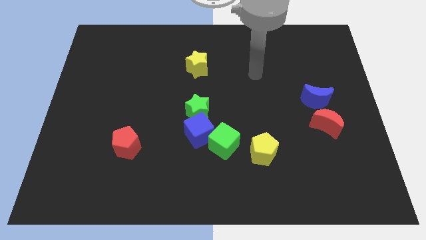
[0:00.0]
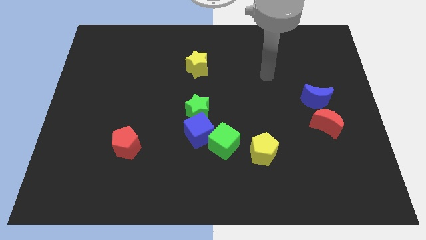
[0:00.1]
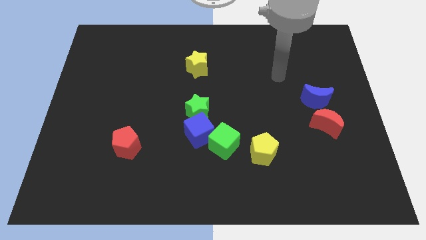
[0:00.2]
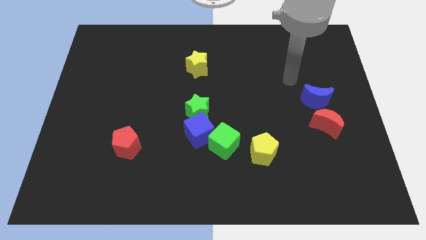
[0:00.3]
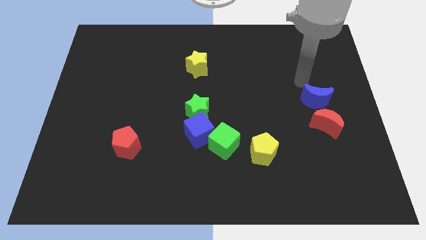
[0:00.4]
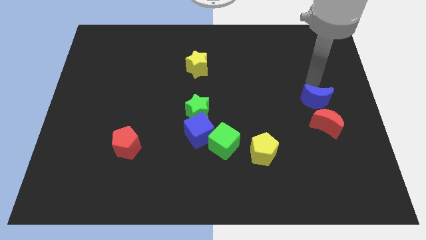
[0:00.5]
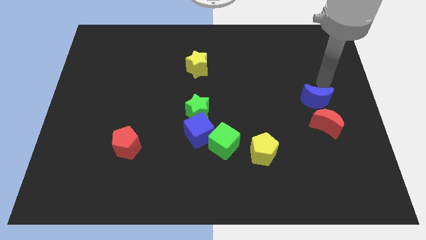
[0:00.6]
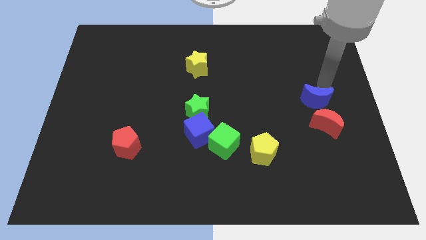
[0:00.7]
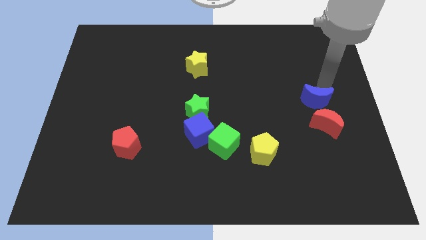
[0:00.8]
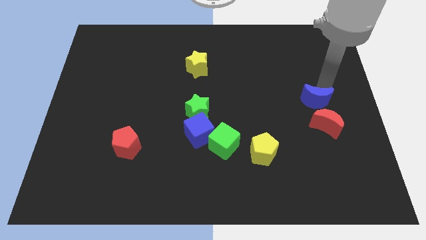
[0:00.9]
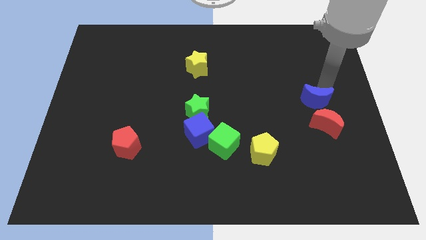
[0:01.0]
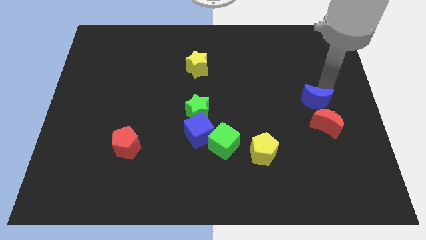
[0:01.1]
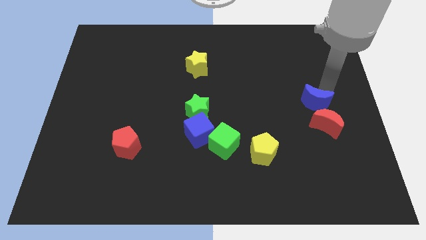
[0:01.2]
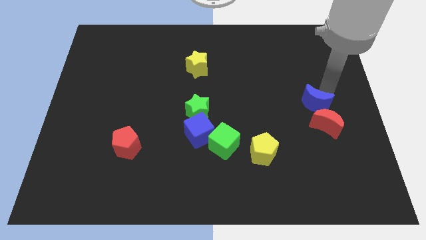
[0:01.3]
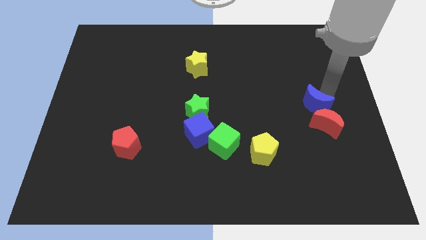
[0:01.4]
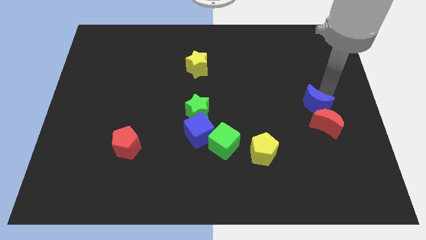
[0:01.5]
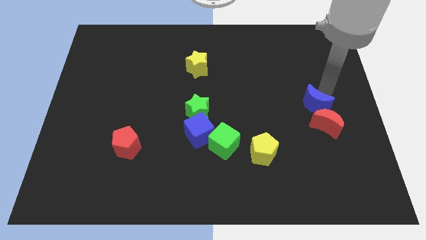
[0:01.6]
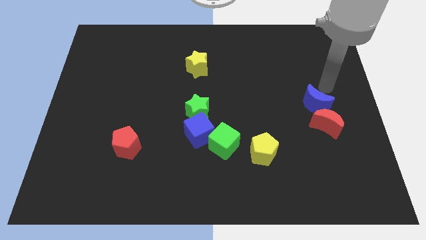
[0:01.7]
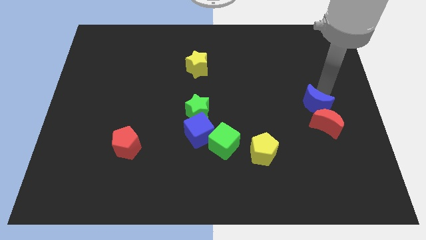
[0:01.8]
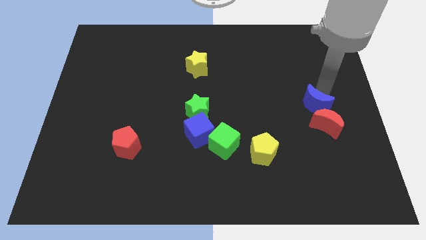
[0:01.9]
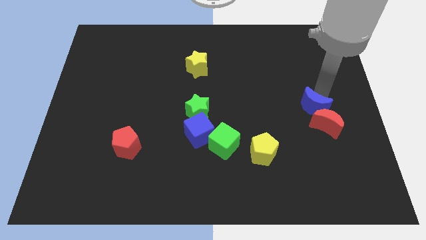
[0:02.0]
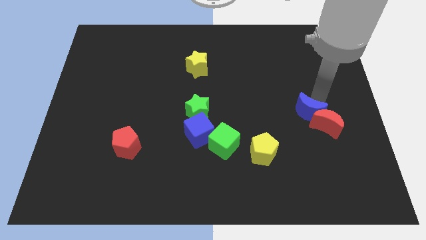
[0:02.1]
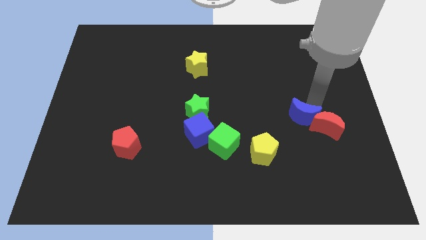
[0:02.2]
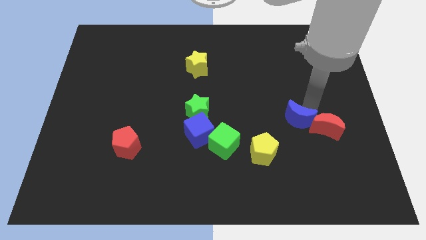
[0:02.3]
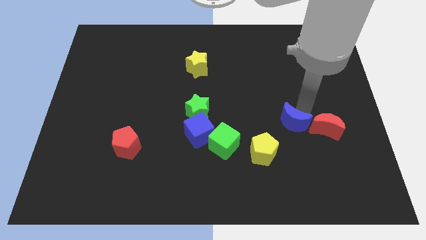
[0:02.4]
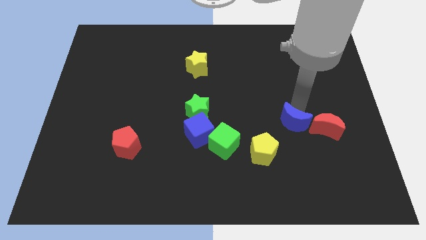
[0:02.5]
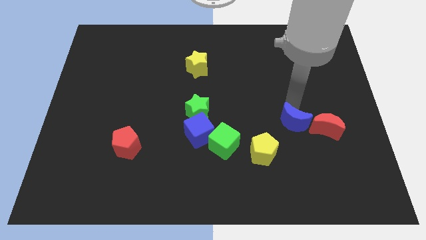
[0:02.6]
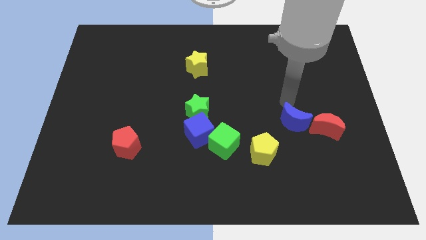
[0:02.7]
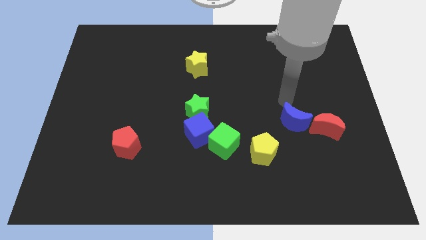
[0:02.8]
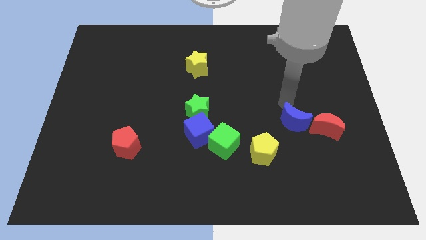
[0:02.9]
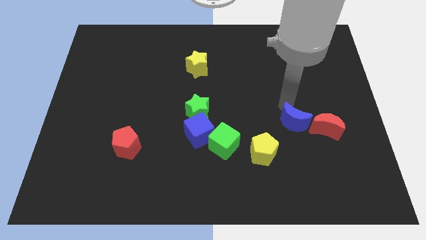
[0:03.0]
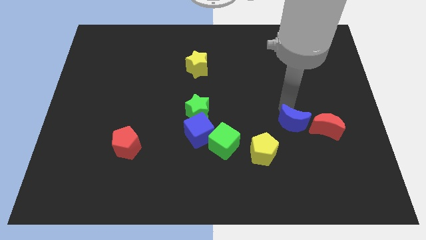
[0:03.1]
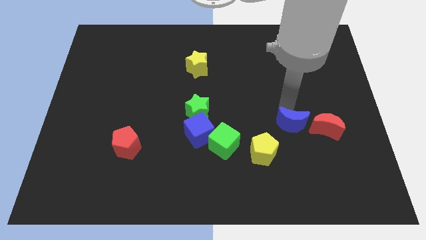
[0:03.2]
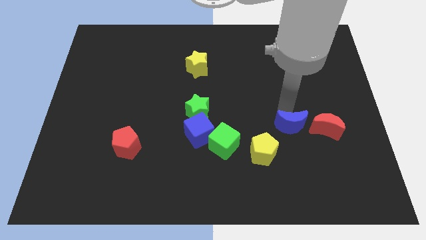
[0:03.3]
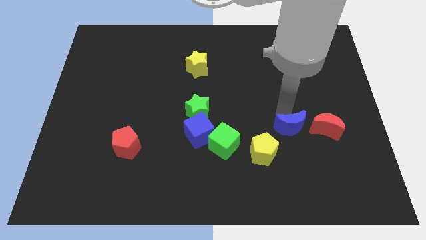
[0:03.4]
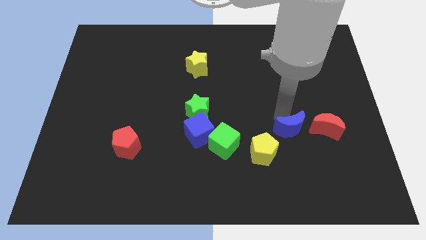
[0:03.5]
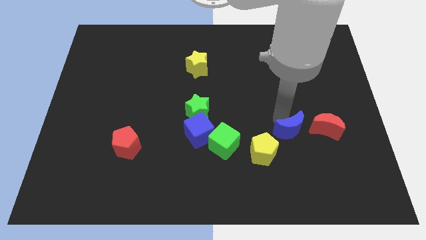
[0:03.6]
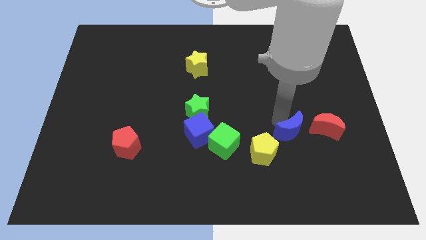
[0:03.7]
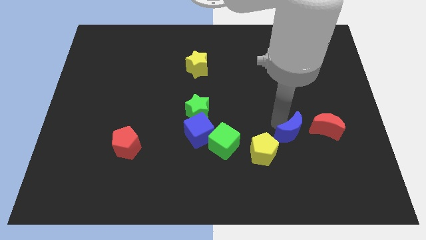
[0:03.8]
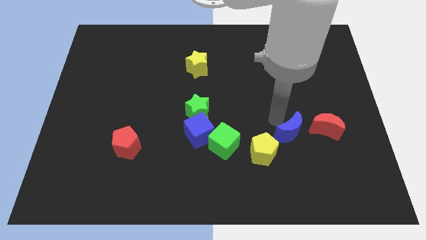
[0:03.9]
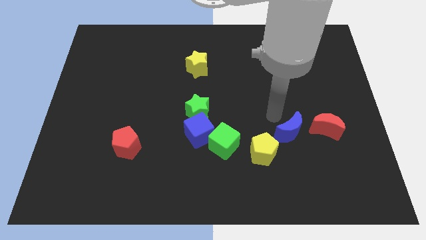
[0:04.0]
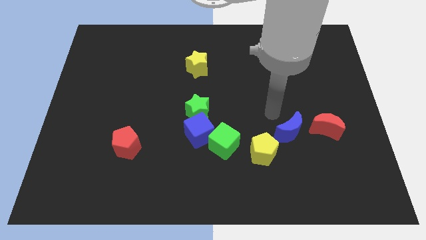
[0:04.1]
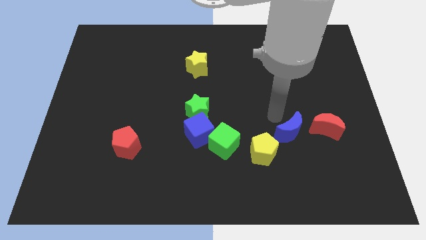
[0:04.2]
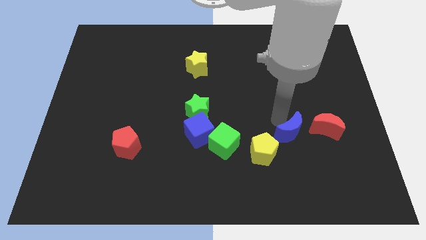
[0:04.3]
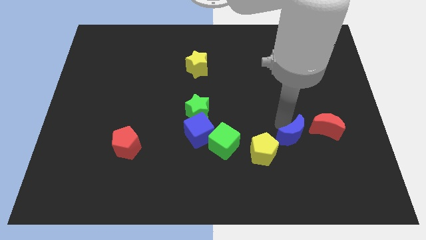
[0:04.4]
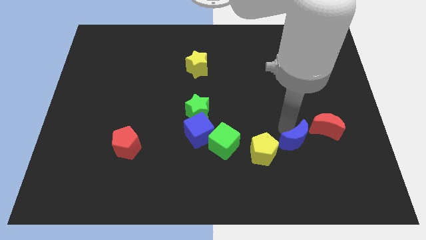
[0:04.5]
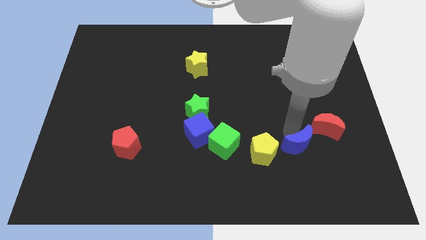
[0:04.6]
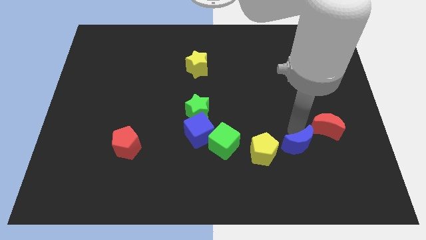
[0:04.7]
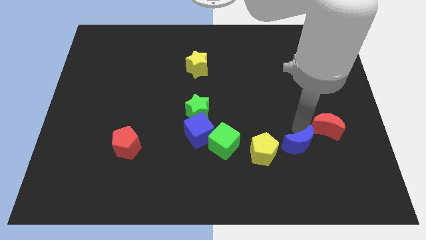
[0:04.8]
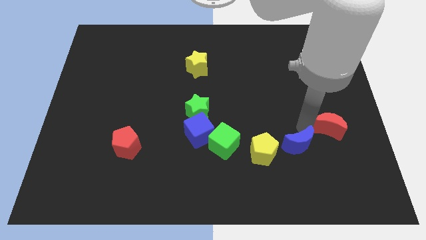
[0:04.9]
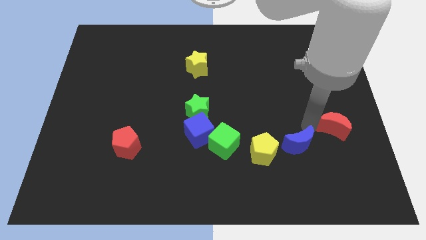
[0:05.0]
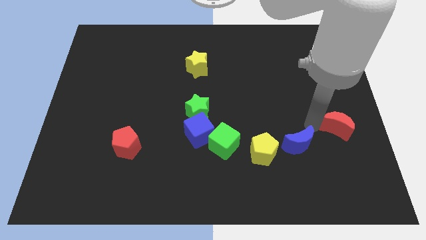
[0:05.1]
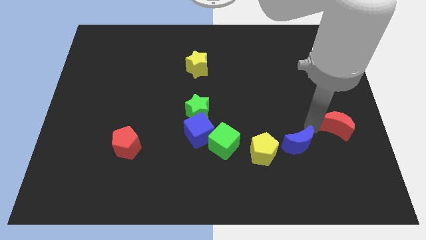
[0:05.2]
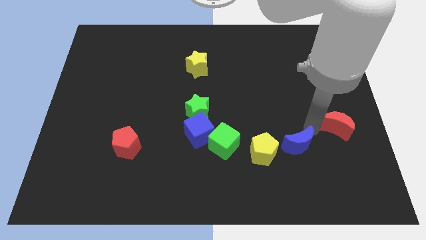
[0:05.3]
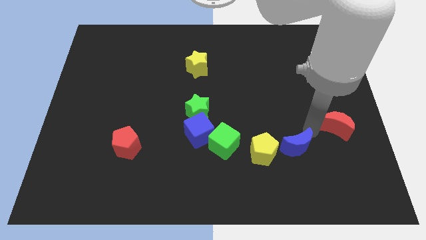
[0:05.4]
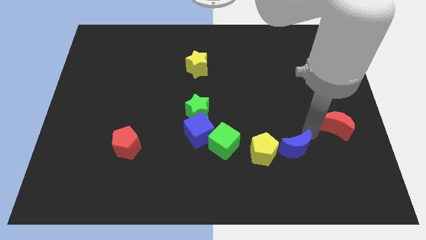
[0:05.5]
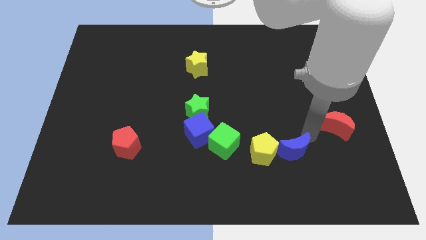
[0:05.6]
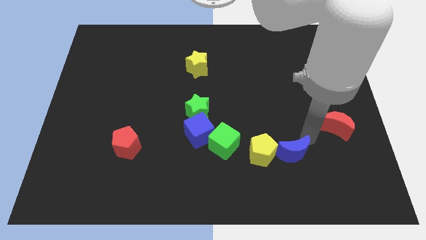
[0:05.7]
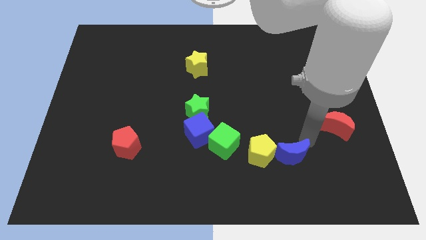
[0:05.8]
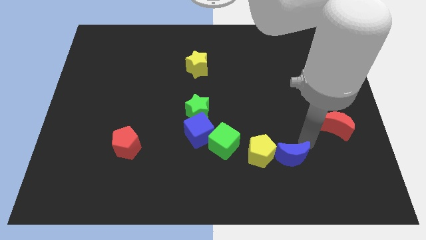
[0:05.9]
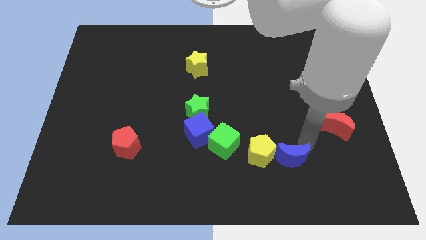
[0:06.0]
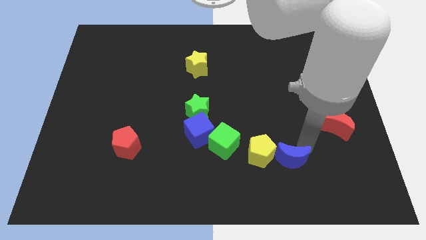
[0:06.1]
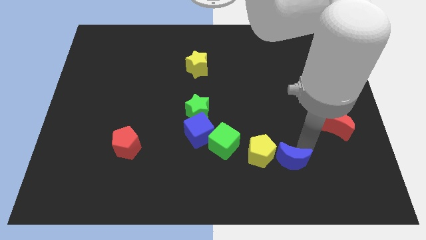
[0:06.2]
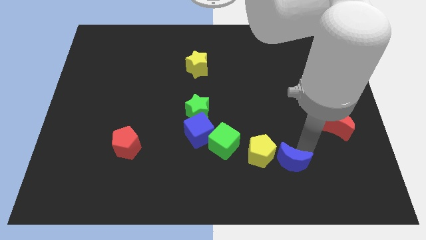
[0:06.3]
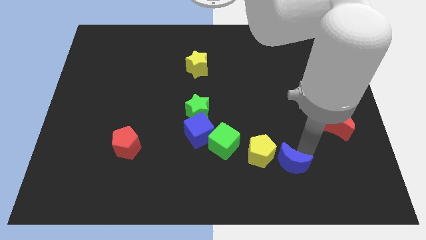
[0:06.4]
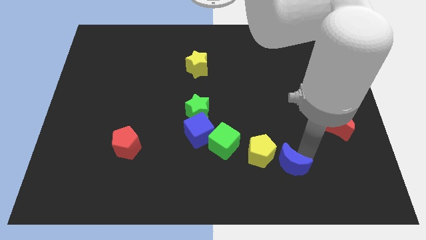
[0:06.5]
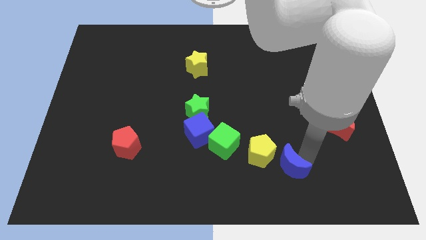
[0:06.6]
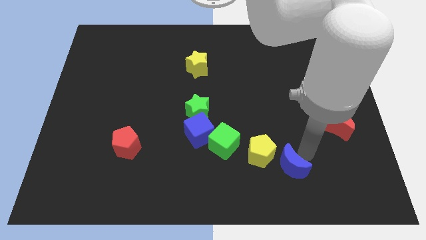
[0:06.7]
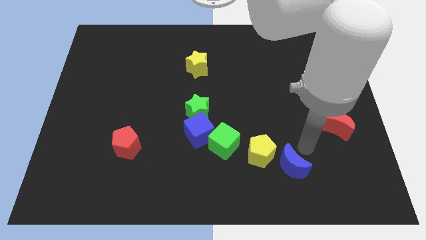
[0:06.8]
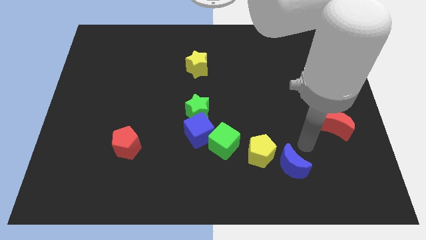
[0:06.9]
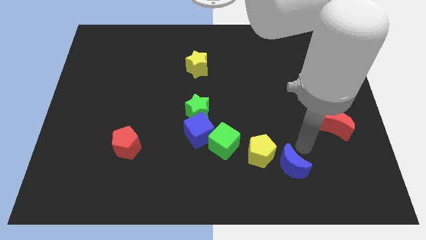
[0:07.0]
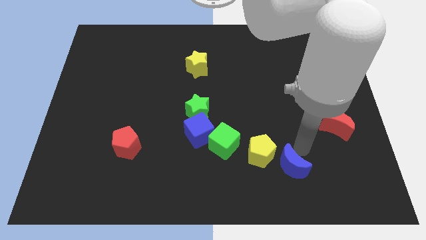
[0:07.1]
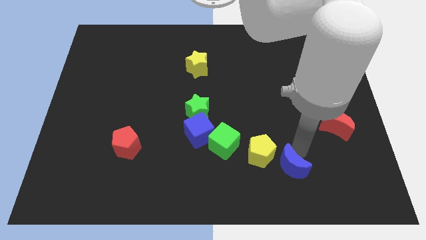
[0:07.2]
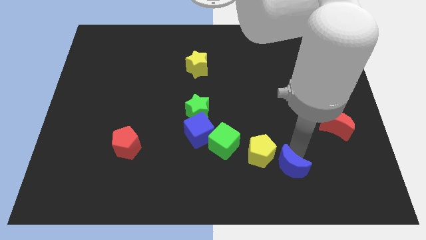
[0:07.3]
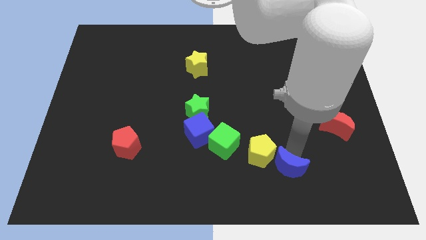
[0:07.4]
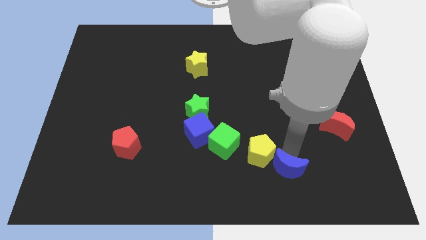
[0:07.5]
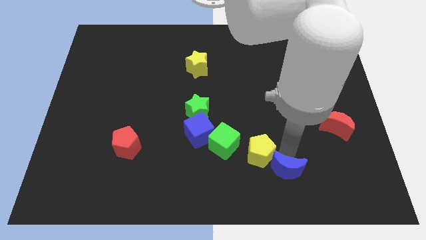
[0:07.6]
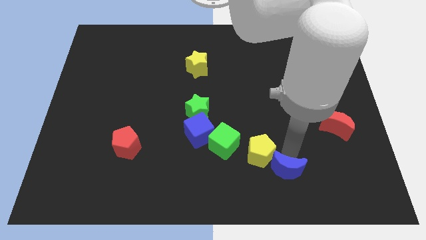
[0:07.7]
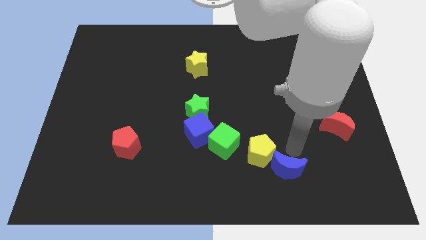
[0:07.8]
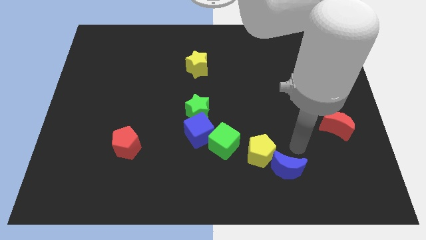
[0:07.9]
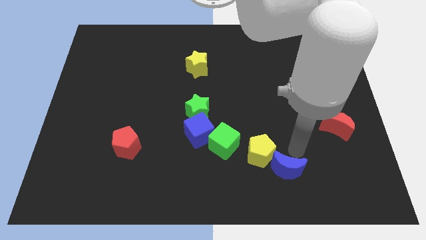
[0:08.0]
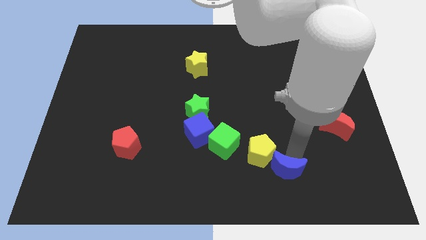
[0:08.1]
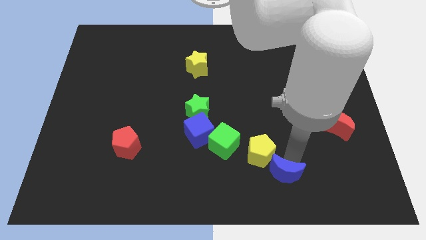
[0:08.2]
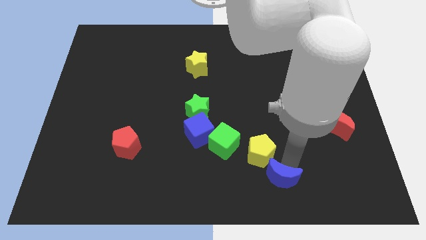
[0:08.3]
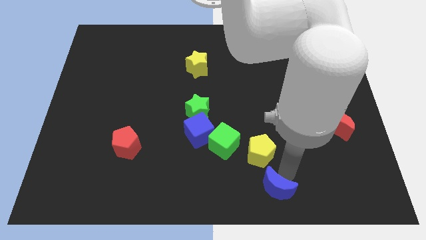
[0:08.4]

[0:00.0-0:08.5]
move the blue moon to the bottom
